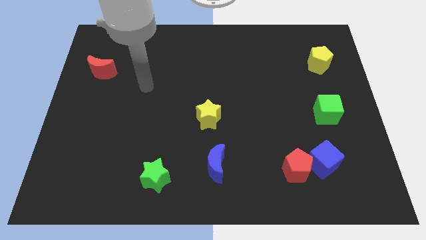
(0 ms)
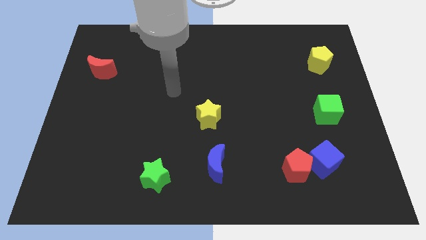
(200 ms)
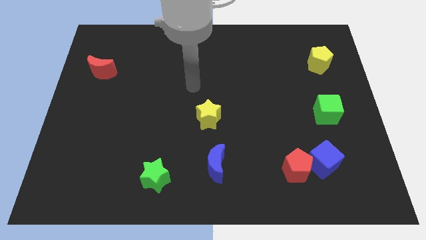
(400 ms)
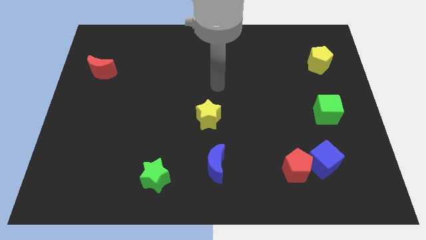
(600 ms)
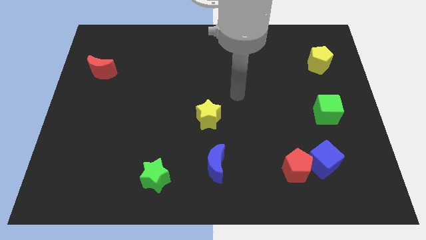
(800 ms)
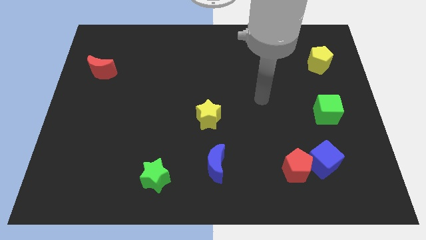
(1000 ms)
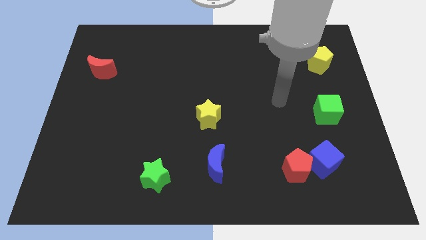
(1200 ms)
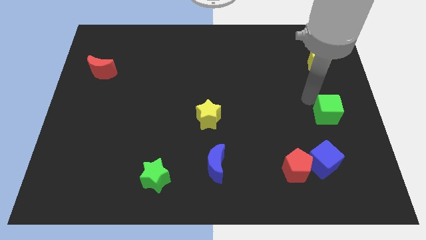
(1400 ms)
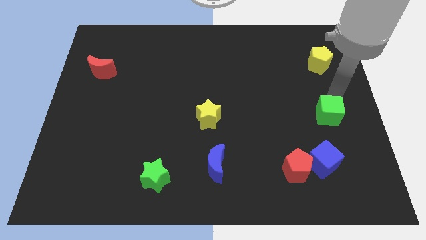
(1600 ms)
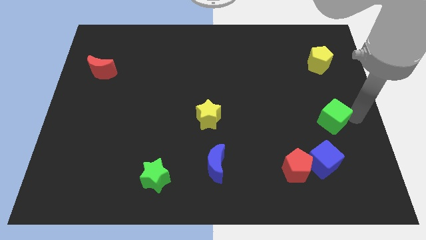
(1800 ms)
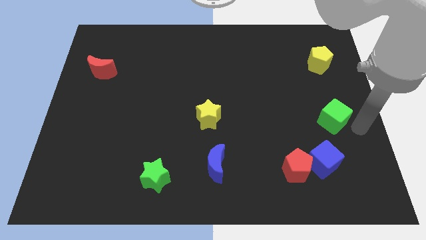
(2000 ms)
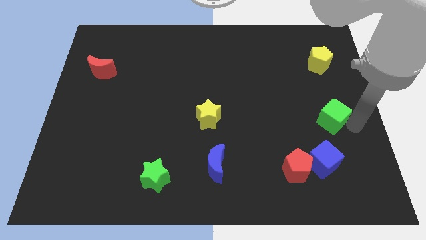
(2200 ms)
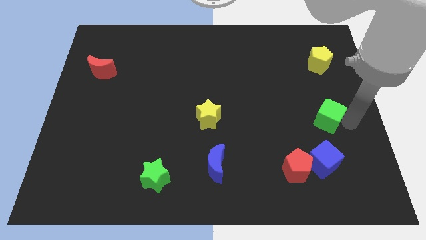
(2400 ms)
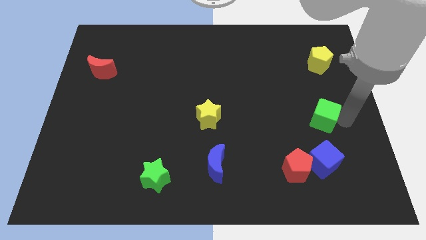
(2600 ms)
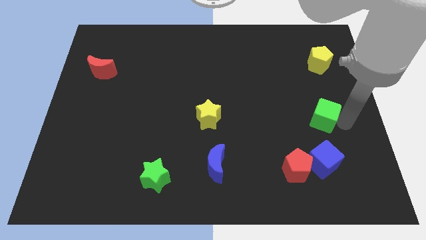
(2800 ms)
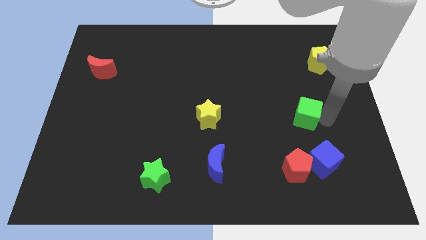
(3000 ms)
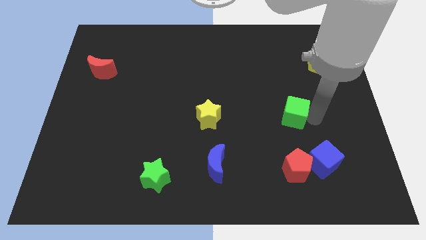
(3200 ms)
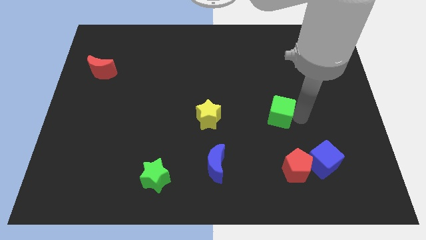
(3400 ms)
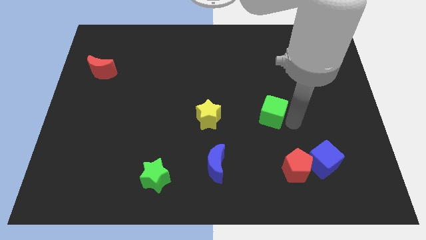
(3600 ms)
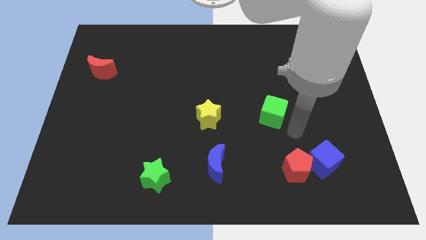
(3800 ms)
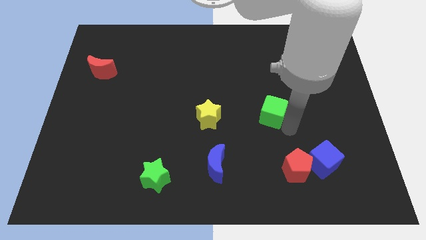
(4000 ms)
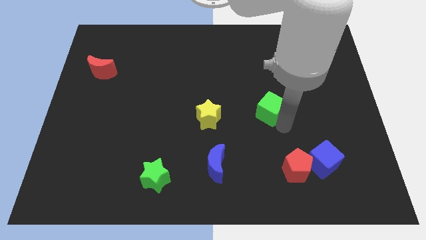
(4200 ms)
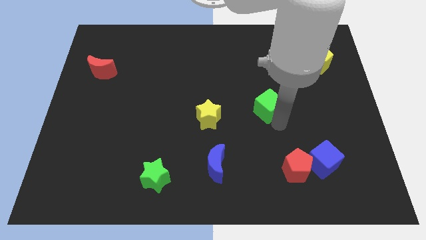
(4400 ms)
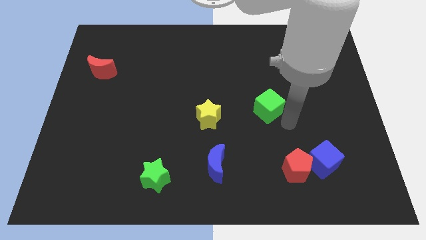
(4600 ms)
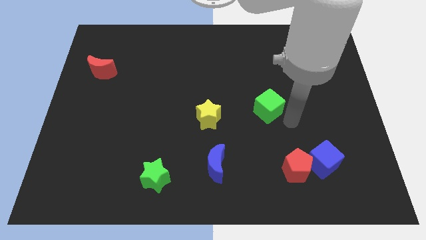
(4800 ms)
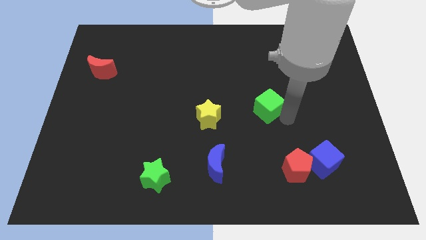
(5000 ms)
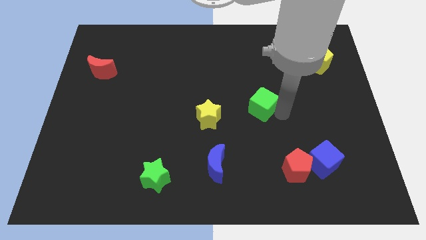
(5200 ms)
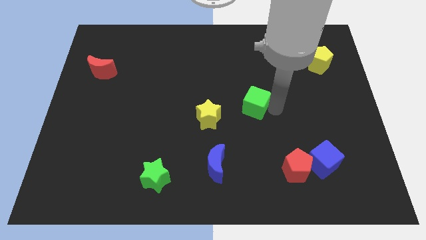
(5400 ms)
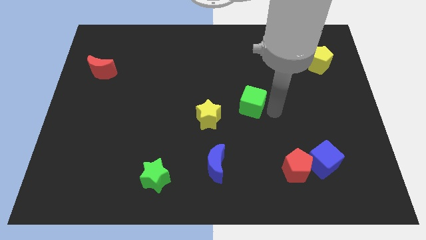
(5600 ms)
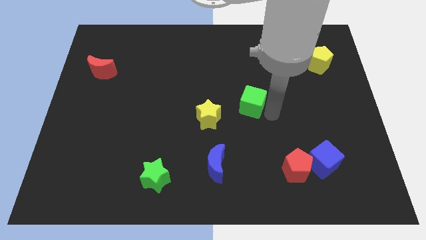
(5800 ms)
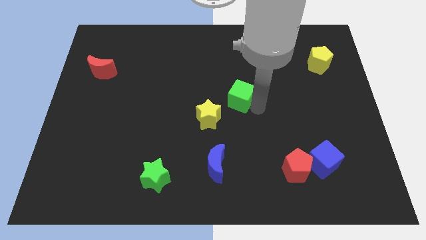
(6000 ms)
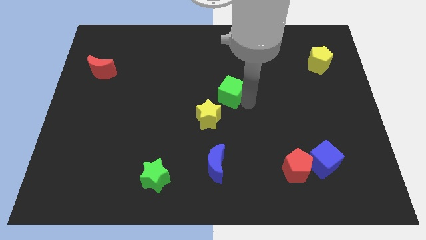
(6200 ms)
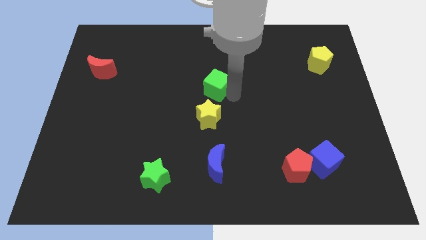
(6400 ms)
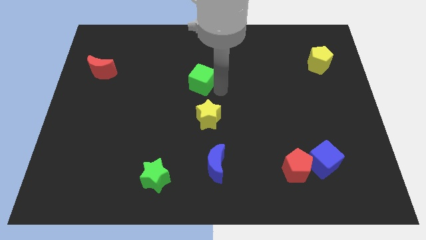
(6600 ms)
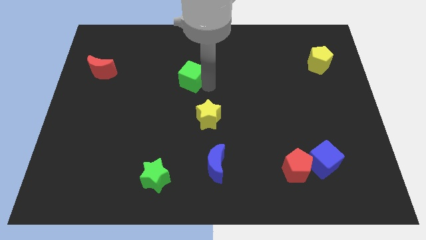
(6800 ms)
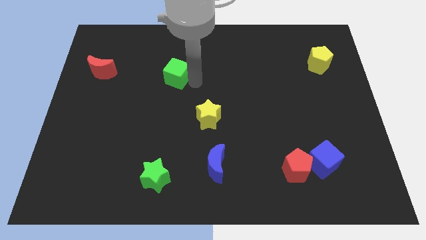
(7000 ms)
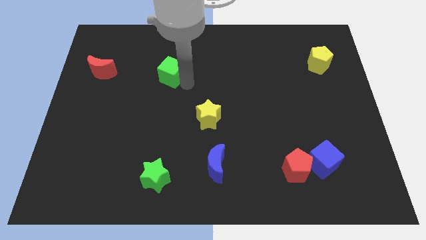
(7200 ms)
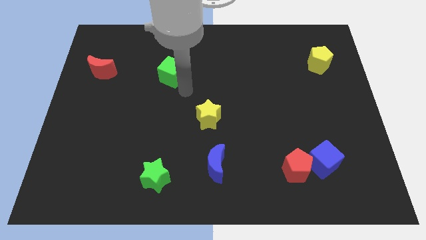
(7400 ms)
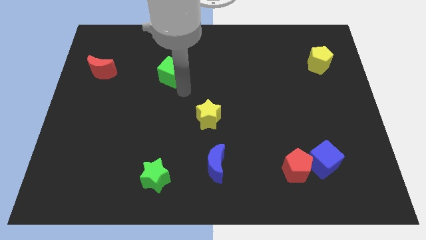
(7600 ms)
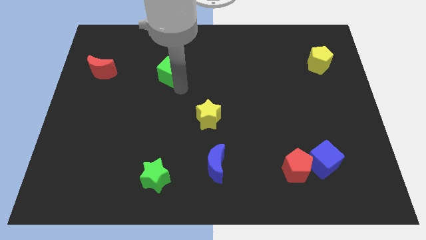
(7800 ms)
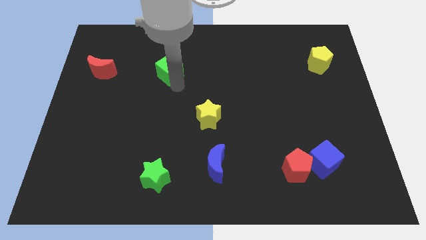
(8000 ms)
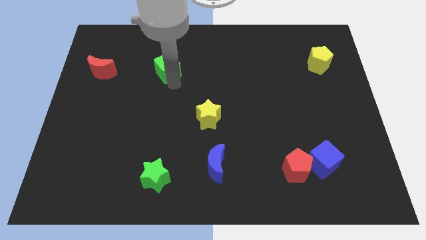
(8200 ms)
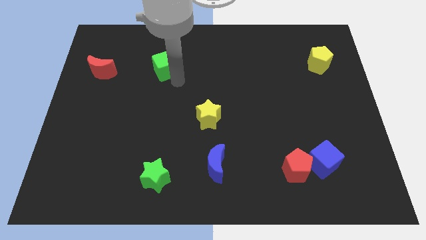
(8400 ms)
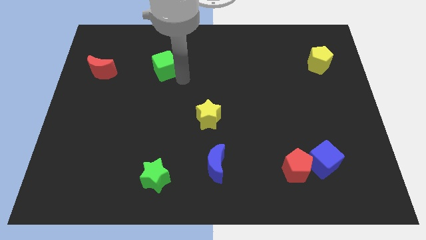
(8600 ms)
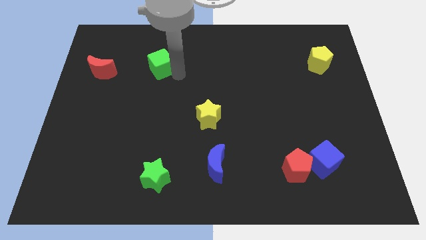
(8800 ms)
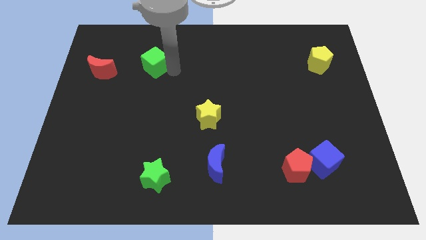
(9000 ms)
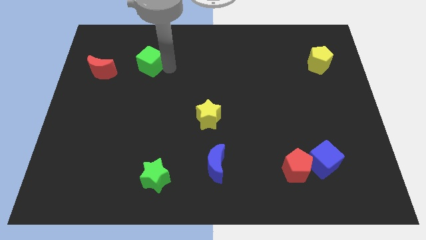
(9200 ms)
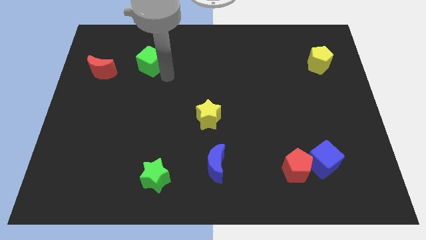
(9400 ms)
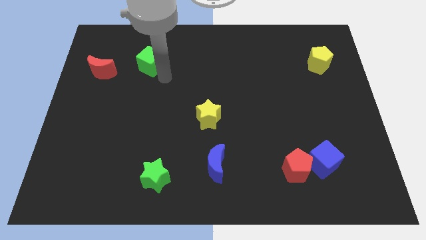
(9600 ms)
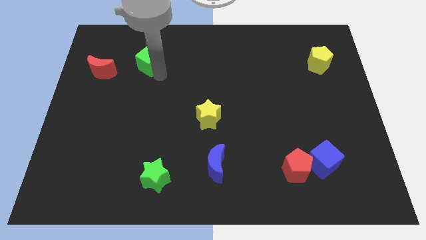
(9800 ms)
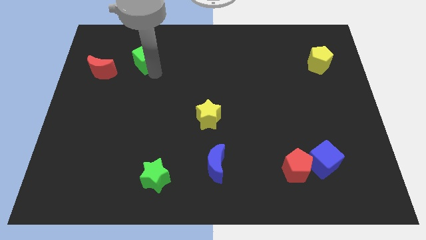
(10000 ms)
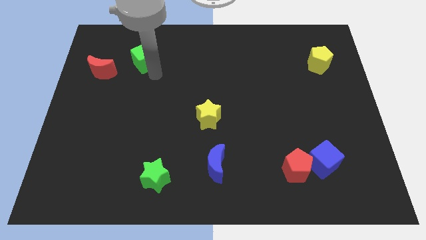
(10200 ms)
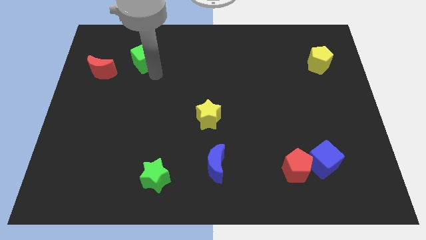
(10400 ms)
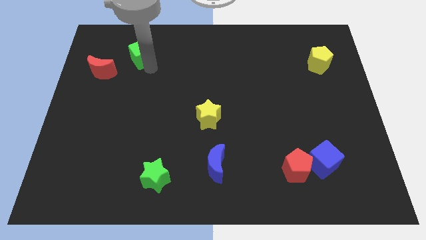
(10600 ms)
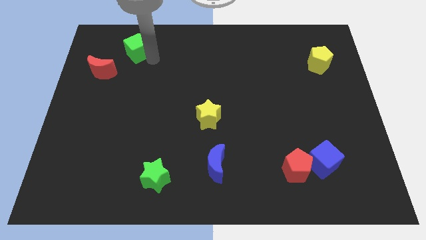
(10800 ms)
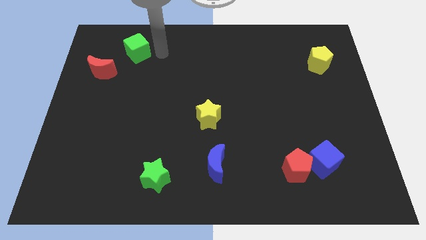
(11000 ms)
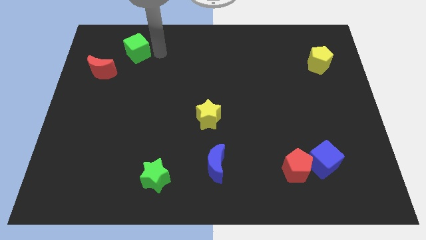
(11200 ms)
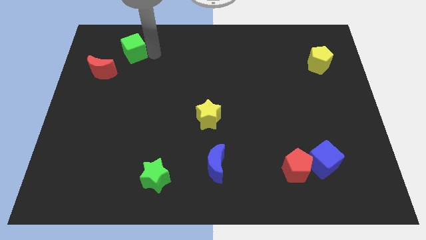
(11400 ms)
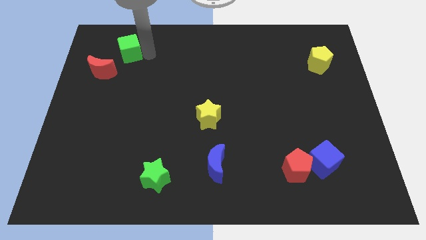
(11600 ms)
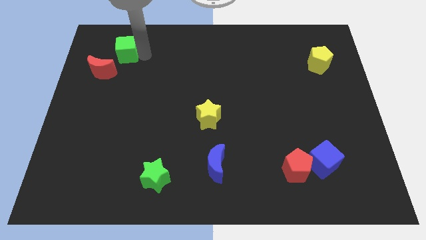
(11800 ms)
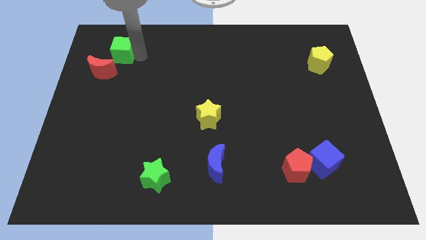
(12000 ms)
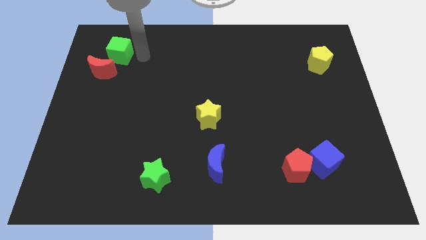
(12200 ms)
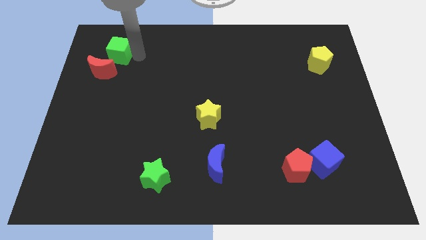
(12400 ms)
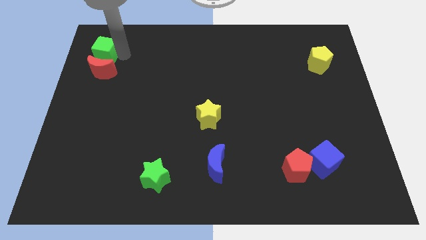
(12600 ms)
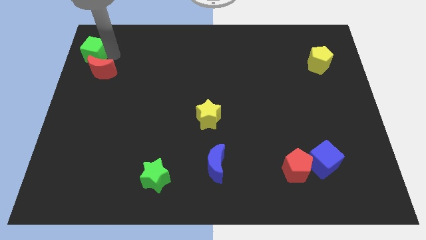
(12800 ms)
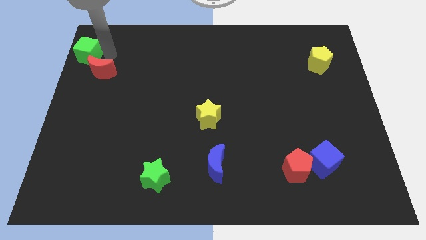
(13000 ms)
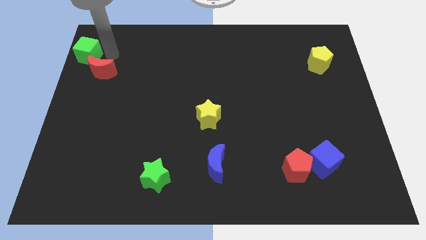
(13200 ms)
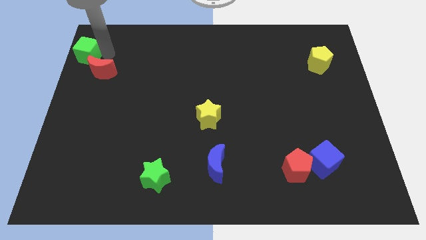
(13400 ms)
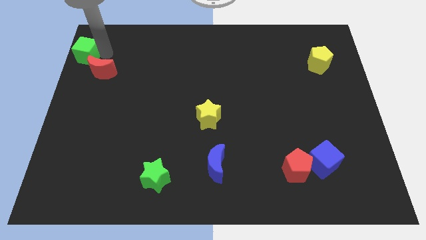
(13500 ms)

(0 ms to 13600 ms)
slide the green cube to the top left of the board
